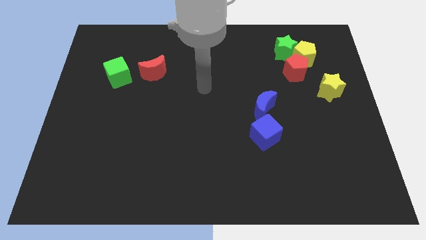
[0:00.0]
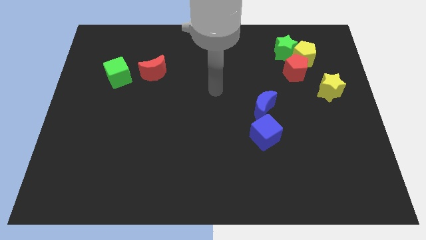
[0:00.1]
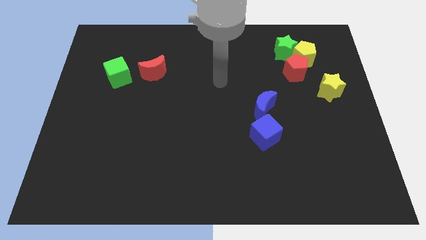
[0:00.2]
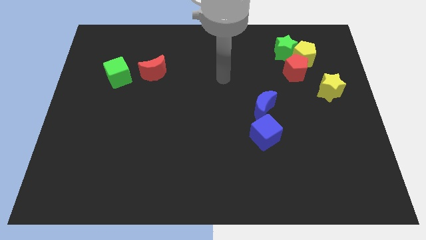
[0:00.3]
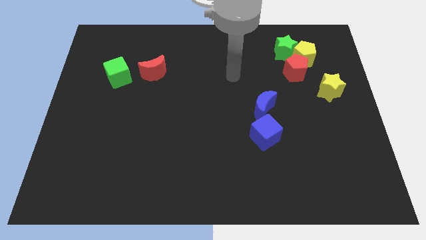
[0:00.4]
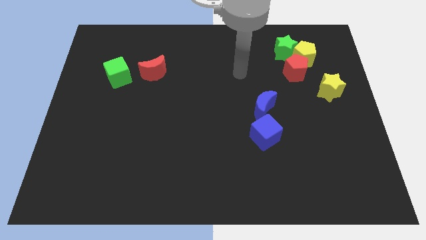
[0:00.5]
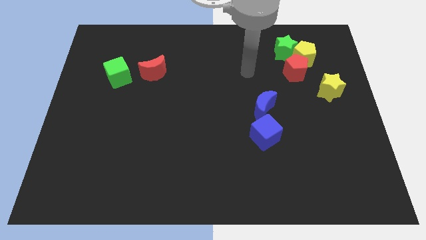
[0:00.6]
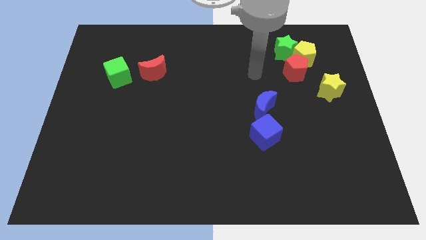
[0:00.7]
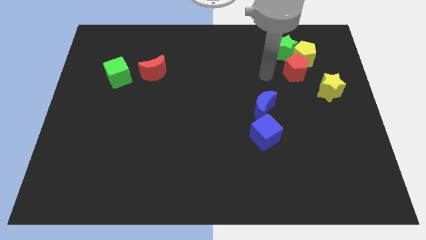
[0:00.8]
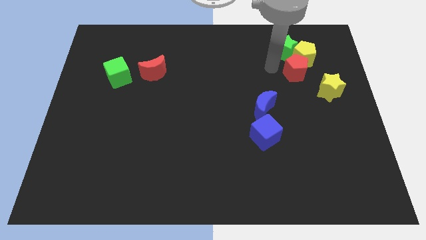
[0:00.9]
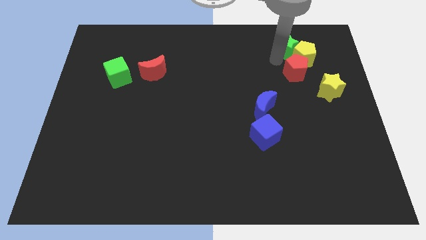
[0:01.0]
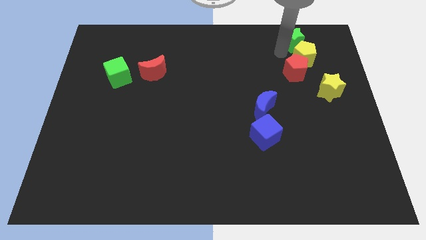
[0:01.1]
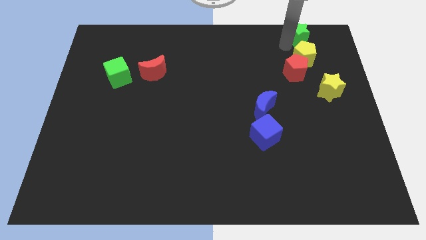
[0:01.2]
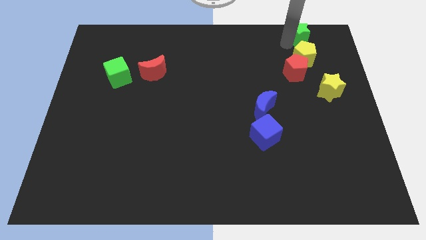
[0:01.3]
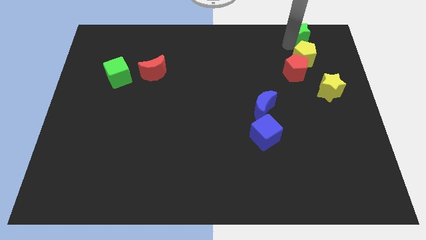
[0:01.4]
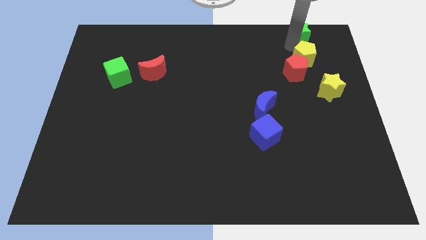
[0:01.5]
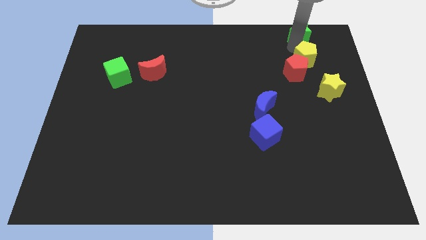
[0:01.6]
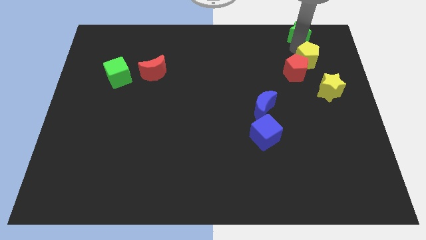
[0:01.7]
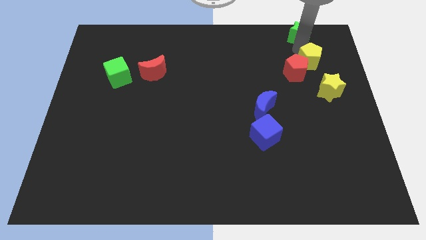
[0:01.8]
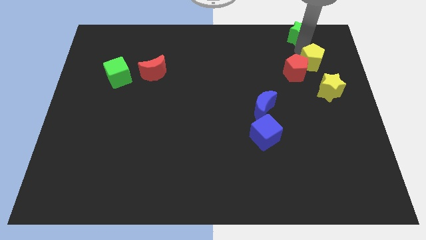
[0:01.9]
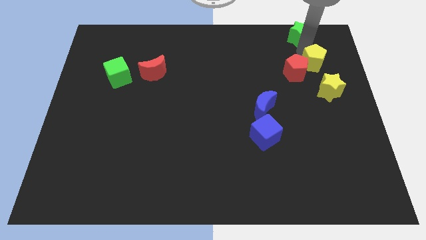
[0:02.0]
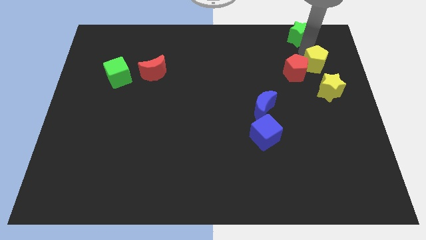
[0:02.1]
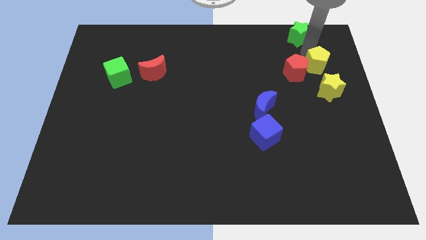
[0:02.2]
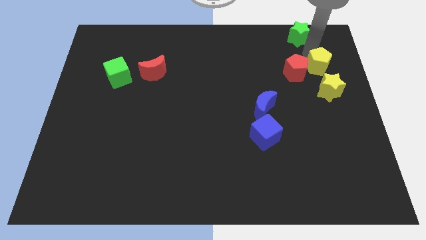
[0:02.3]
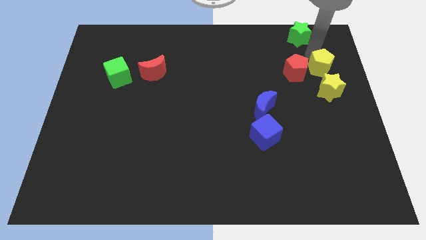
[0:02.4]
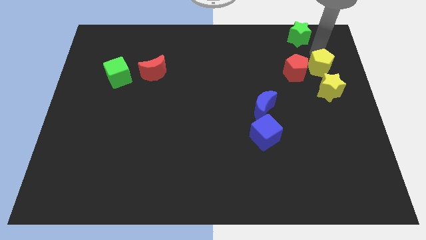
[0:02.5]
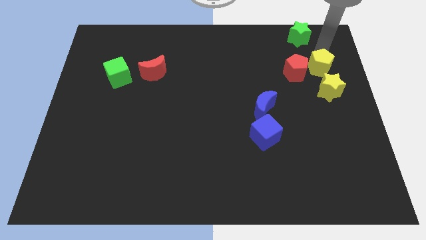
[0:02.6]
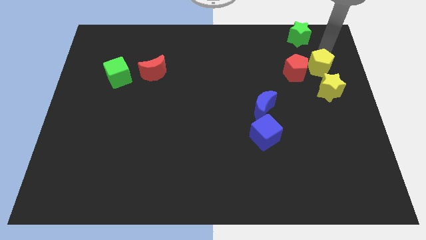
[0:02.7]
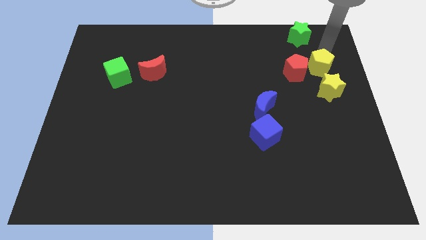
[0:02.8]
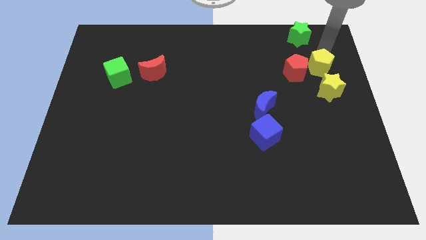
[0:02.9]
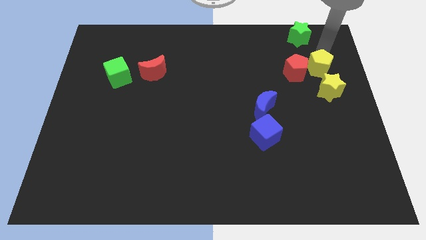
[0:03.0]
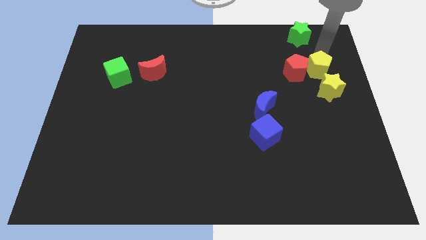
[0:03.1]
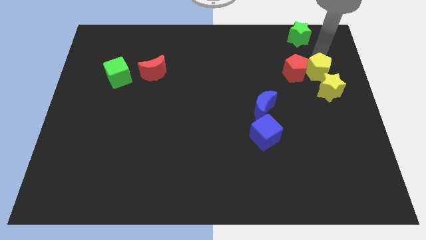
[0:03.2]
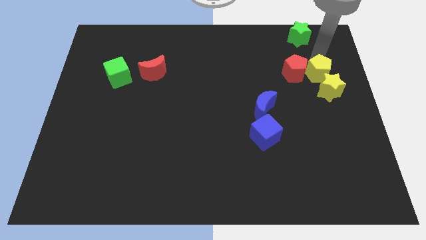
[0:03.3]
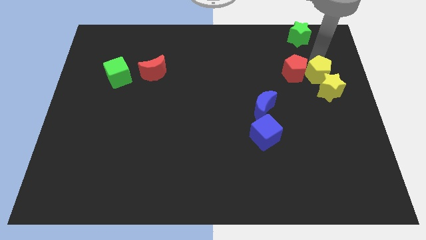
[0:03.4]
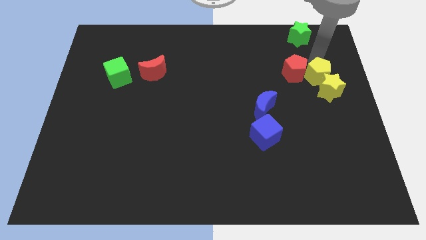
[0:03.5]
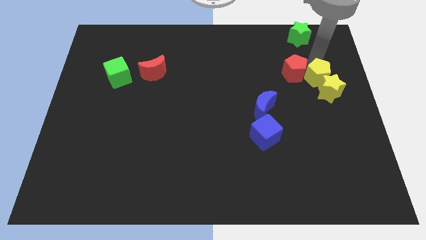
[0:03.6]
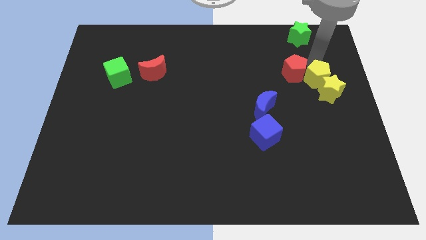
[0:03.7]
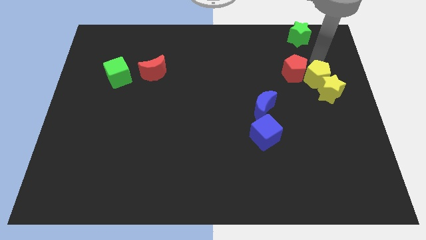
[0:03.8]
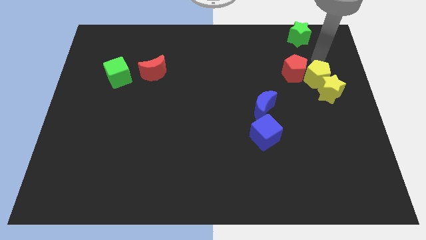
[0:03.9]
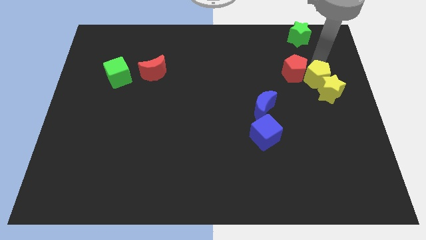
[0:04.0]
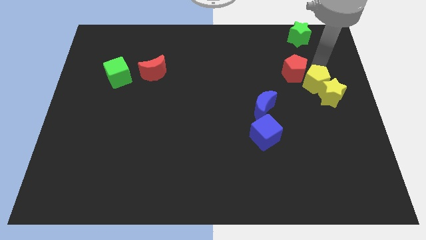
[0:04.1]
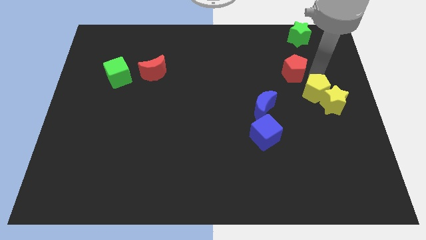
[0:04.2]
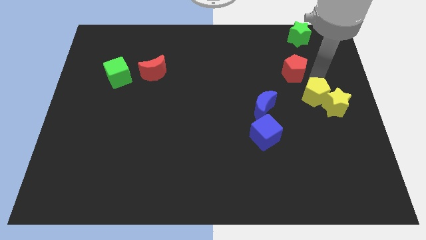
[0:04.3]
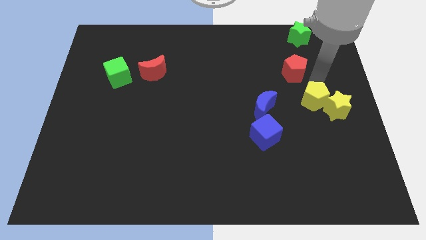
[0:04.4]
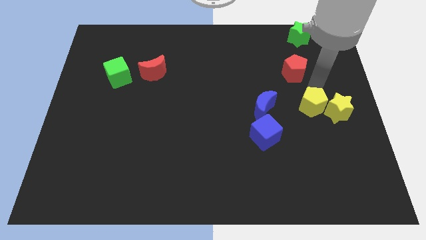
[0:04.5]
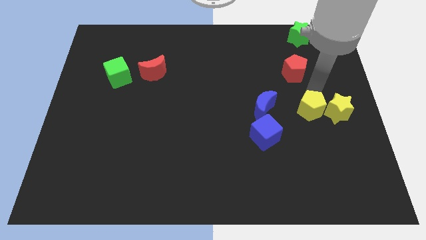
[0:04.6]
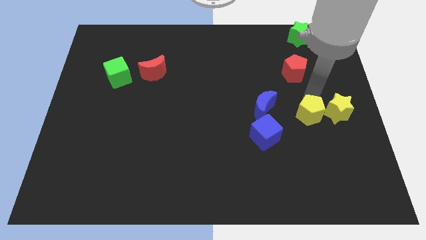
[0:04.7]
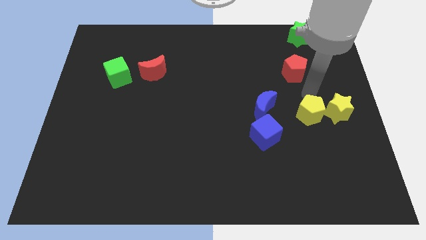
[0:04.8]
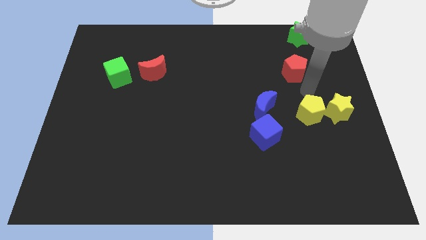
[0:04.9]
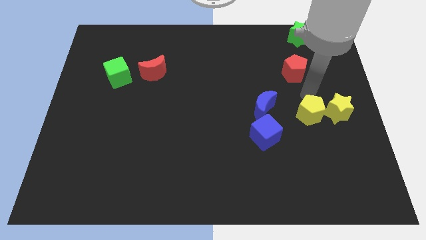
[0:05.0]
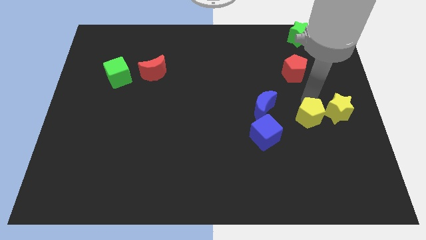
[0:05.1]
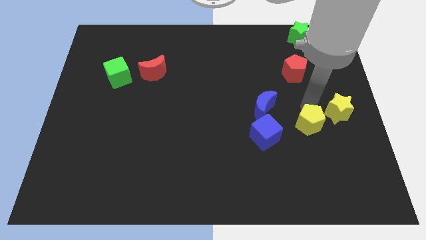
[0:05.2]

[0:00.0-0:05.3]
push the yellow pentagon to the right side of the blue cube

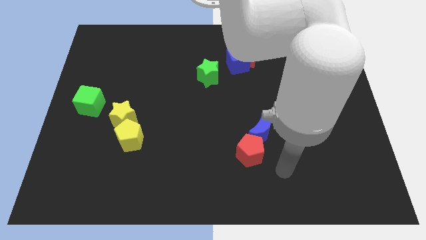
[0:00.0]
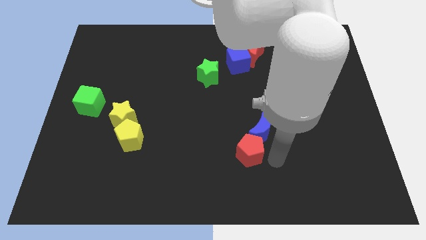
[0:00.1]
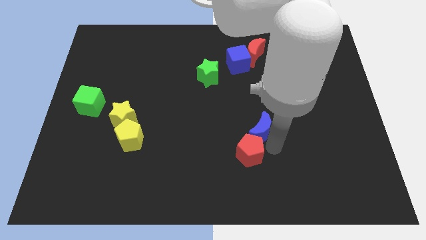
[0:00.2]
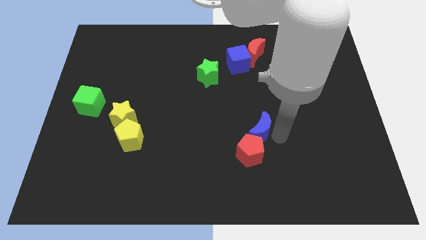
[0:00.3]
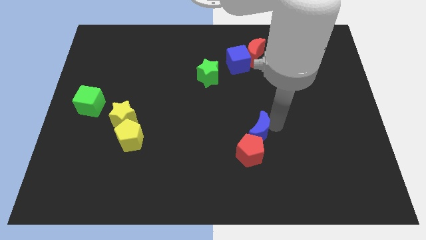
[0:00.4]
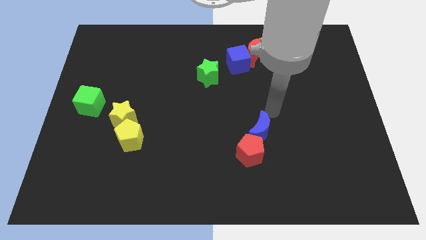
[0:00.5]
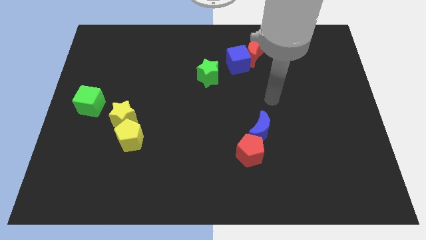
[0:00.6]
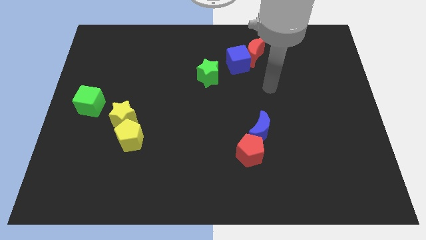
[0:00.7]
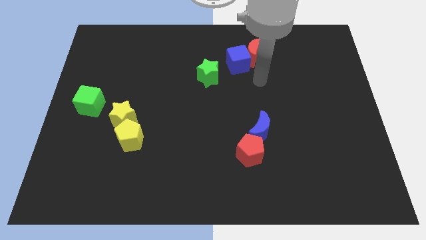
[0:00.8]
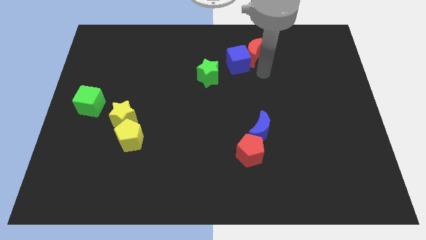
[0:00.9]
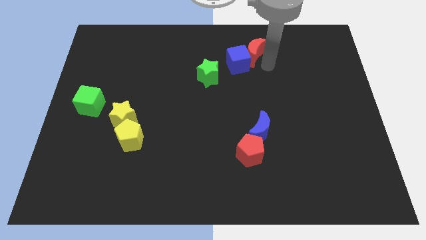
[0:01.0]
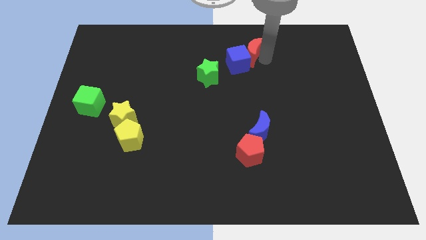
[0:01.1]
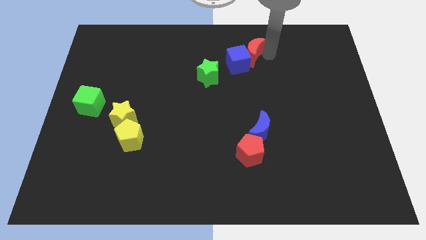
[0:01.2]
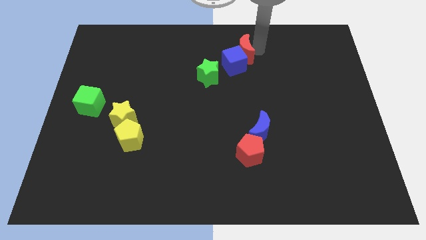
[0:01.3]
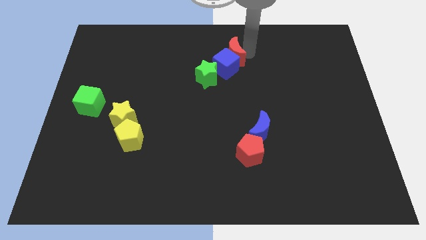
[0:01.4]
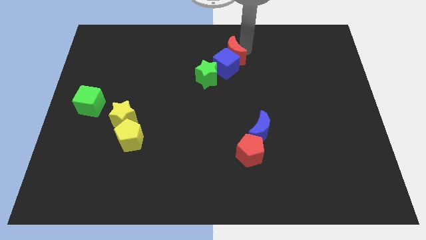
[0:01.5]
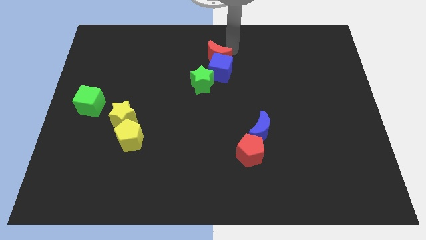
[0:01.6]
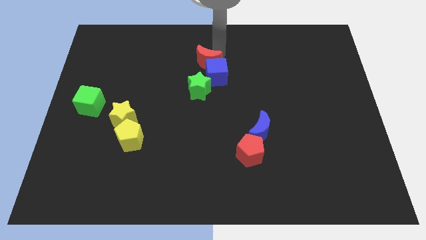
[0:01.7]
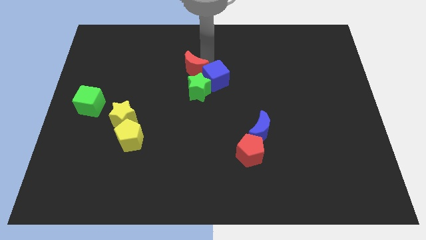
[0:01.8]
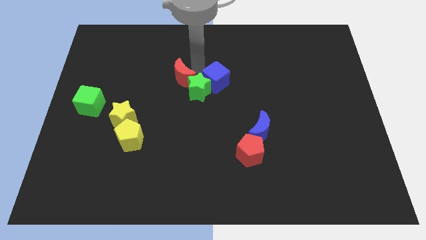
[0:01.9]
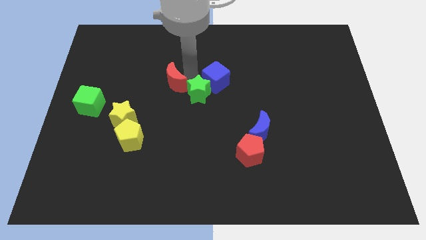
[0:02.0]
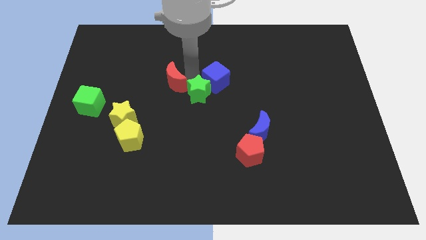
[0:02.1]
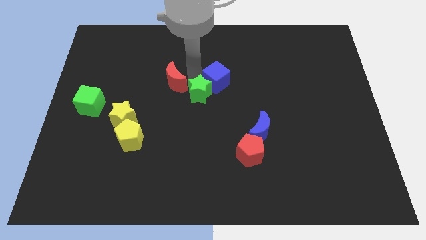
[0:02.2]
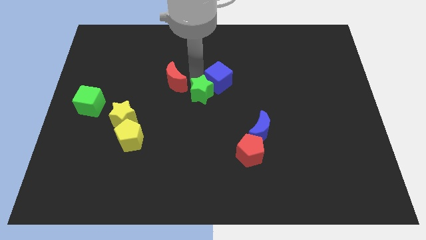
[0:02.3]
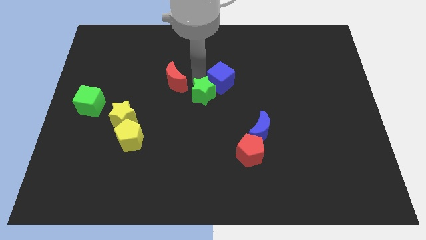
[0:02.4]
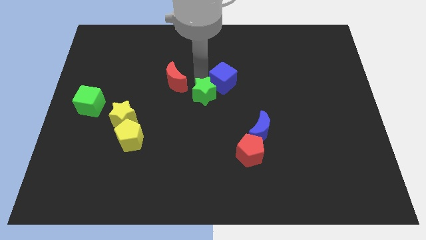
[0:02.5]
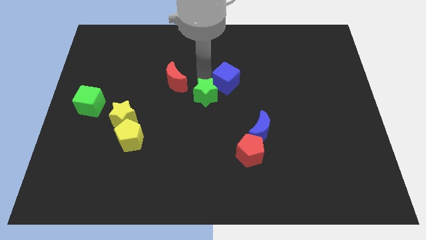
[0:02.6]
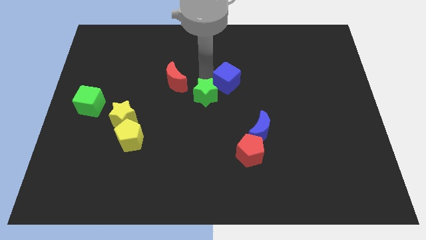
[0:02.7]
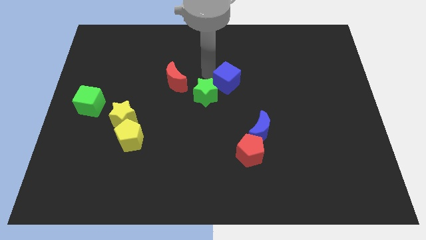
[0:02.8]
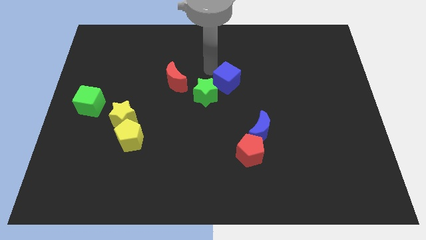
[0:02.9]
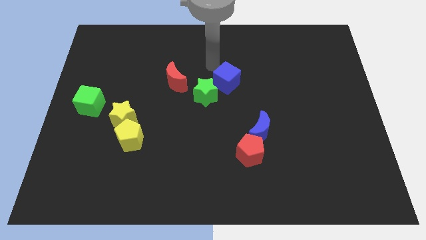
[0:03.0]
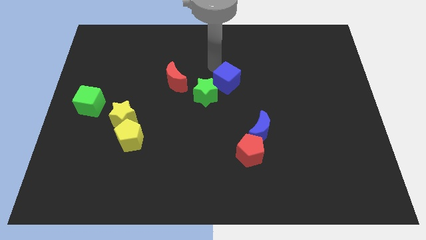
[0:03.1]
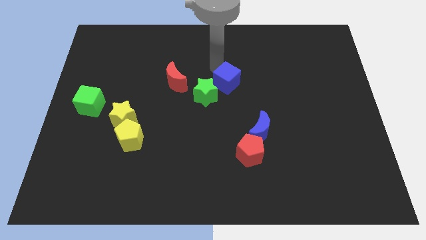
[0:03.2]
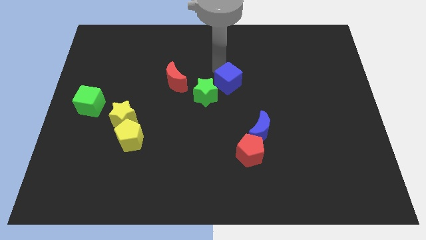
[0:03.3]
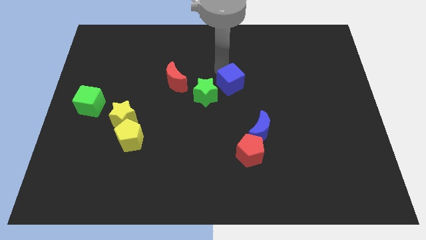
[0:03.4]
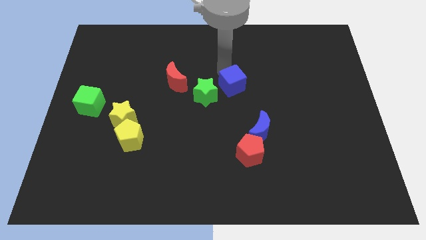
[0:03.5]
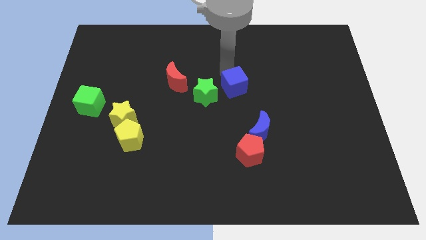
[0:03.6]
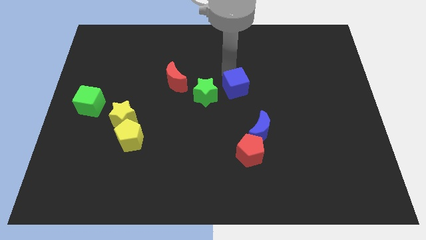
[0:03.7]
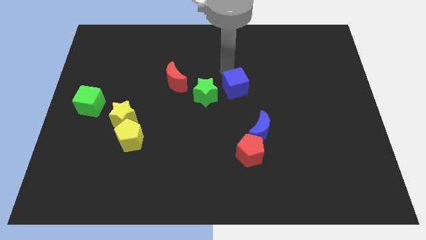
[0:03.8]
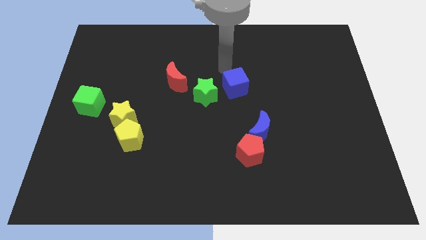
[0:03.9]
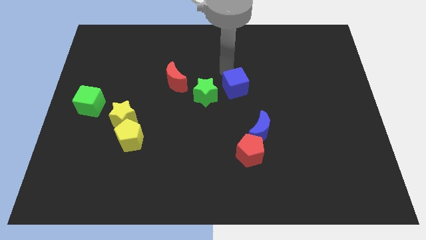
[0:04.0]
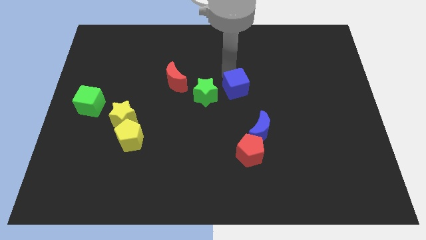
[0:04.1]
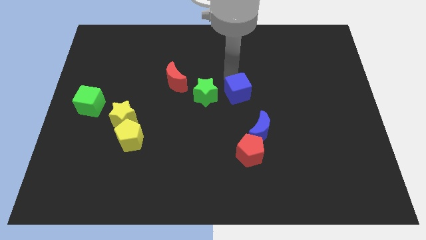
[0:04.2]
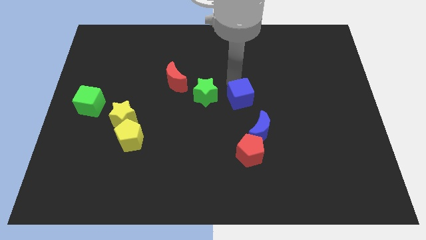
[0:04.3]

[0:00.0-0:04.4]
move the blue cube to the top of the red pentagon
